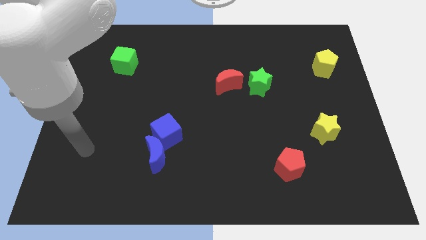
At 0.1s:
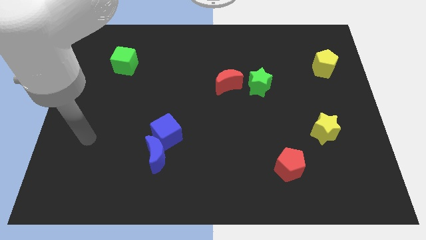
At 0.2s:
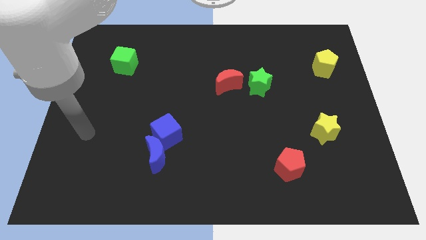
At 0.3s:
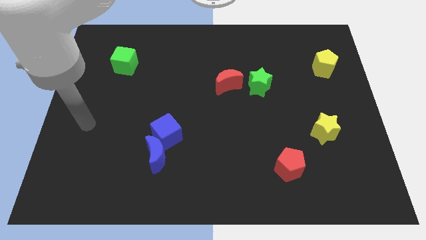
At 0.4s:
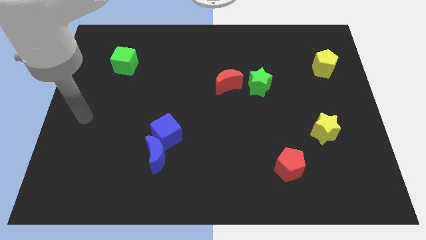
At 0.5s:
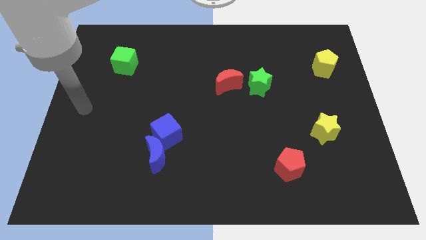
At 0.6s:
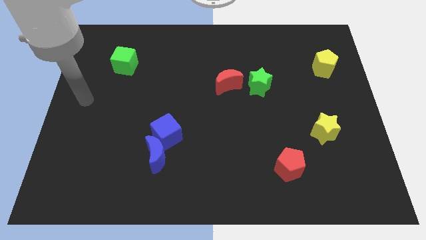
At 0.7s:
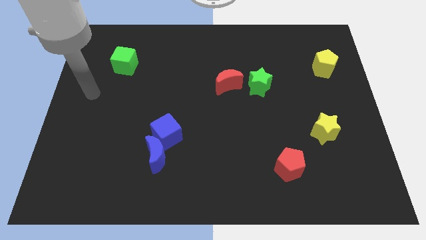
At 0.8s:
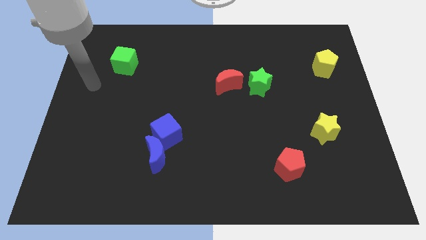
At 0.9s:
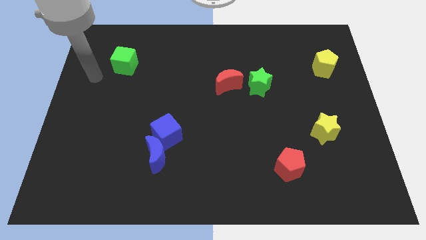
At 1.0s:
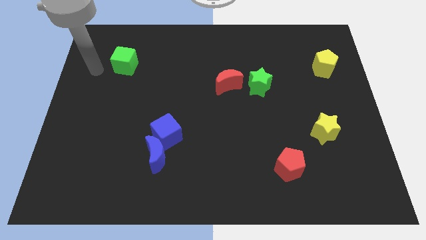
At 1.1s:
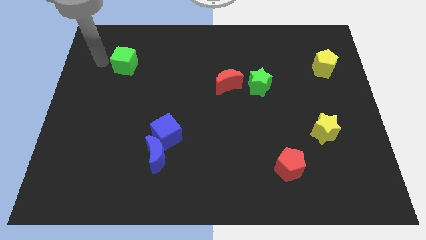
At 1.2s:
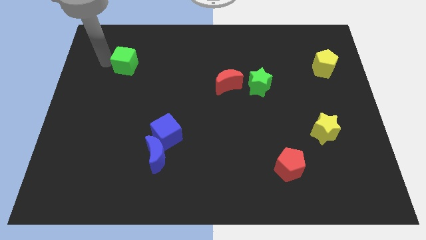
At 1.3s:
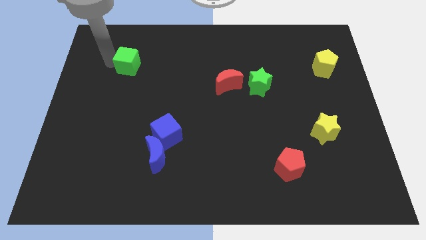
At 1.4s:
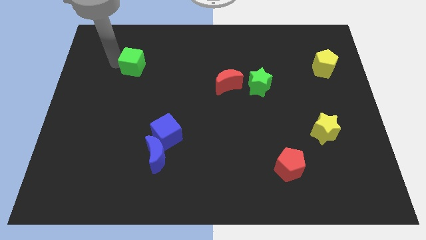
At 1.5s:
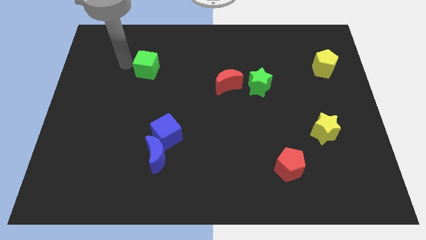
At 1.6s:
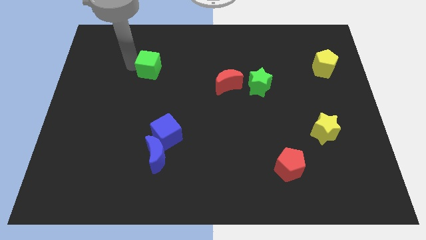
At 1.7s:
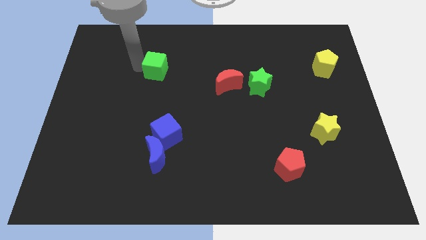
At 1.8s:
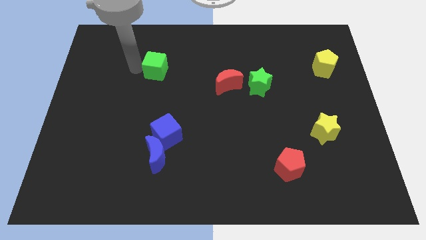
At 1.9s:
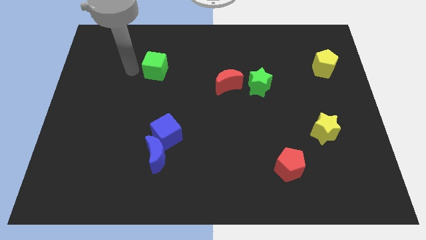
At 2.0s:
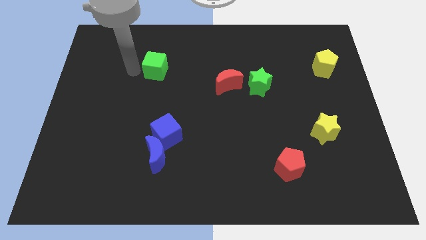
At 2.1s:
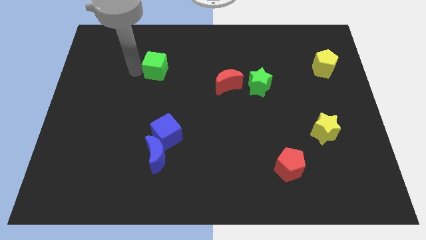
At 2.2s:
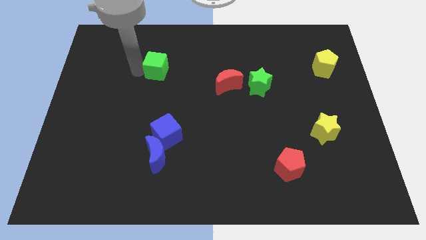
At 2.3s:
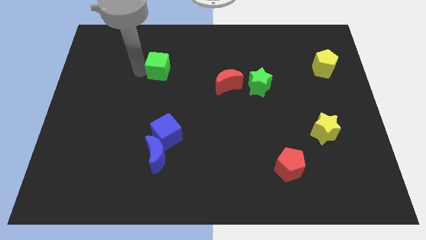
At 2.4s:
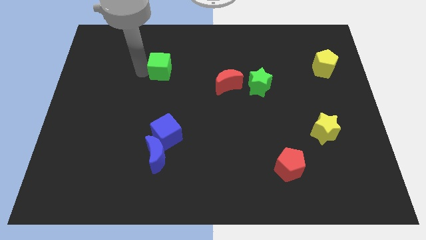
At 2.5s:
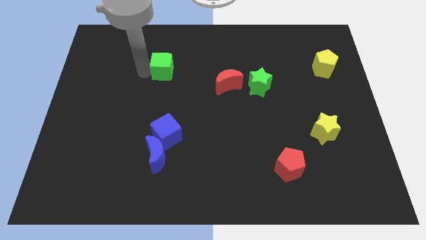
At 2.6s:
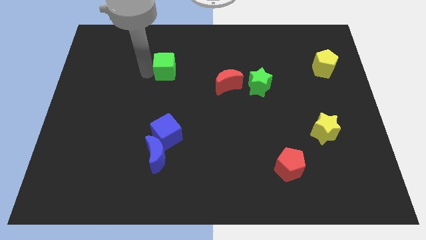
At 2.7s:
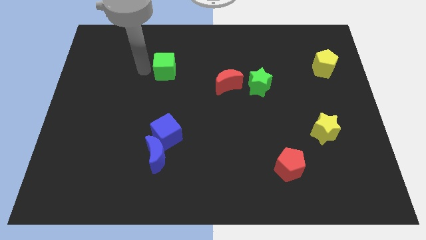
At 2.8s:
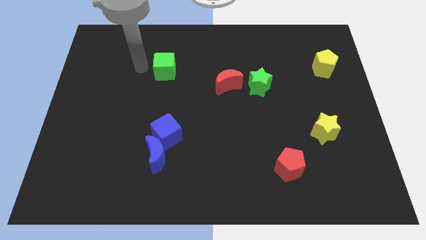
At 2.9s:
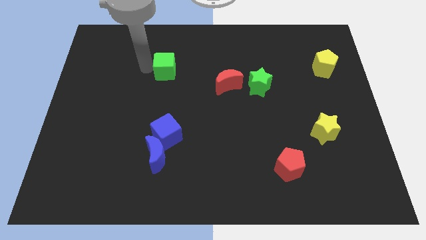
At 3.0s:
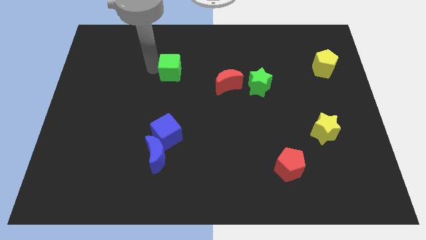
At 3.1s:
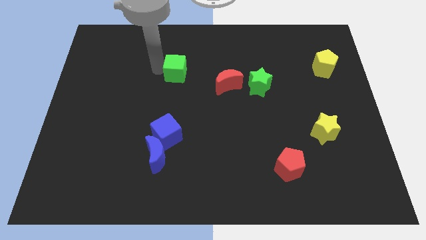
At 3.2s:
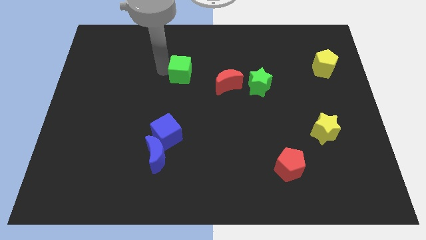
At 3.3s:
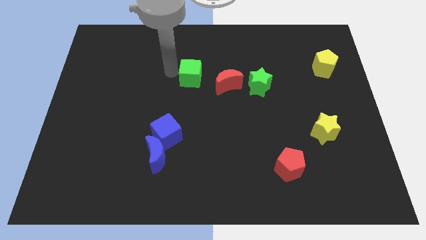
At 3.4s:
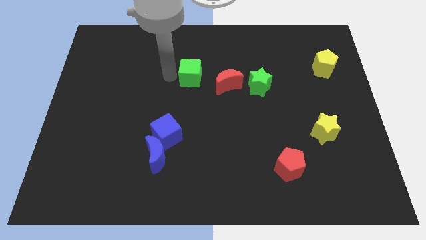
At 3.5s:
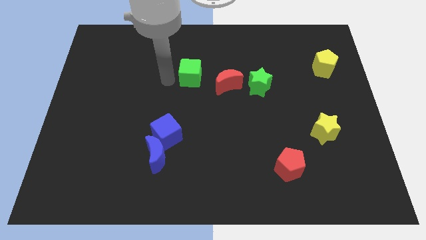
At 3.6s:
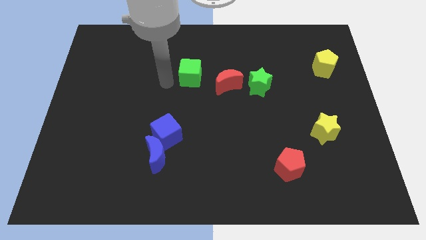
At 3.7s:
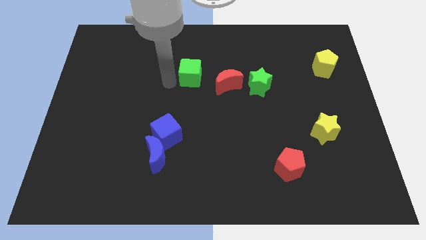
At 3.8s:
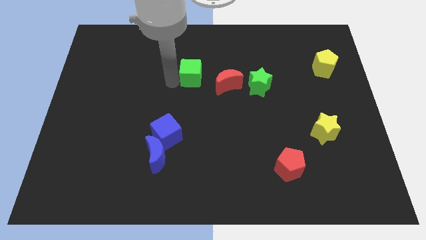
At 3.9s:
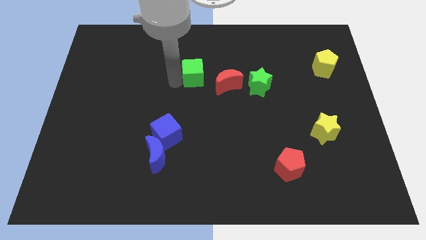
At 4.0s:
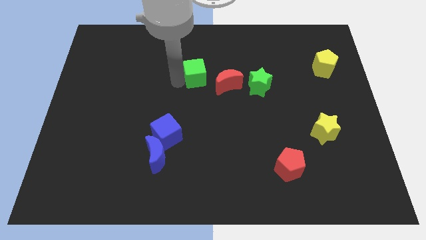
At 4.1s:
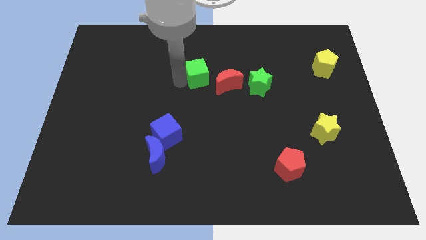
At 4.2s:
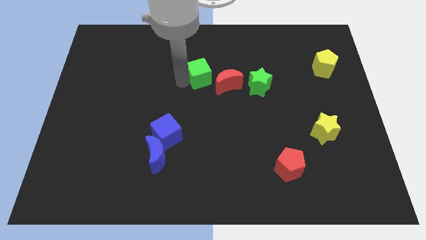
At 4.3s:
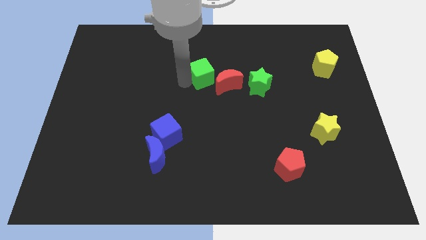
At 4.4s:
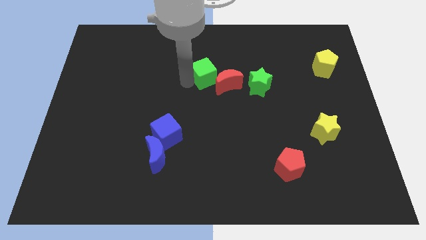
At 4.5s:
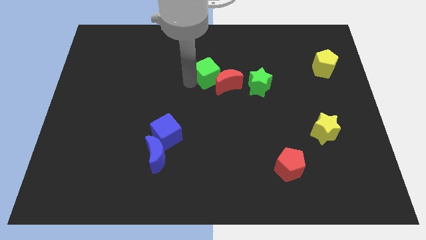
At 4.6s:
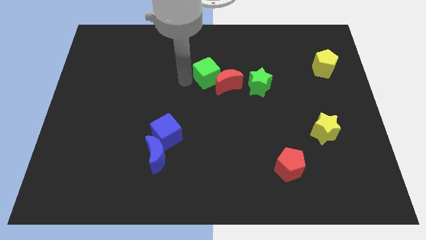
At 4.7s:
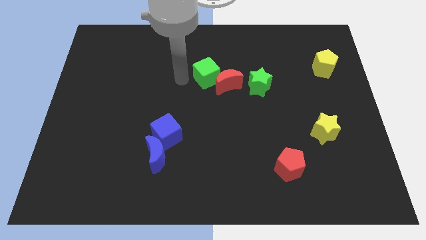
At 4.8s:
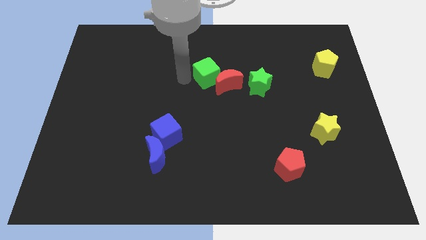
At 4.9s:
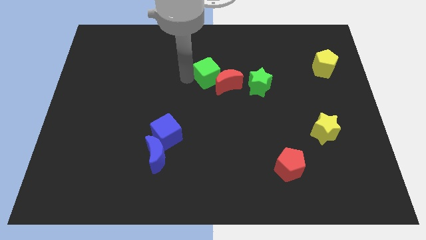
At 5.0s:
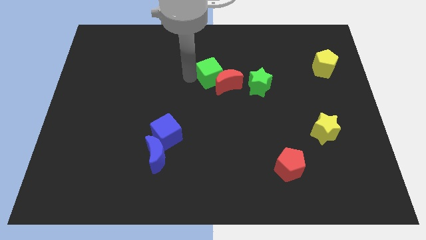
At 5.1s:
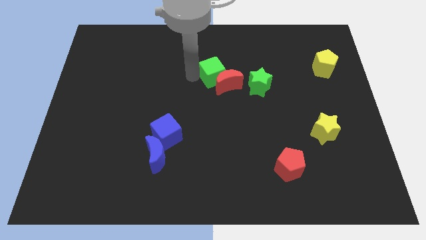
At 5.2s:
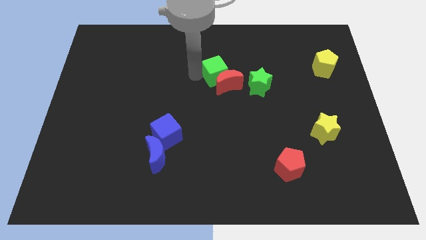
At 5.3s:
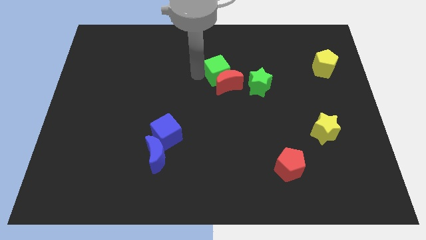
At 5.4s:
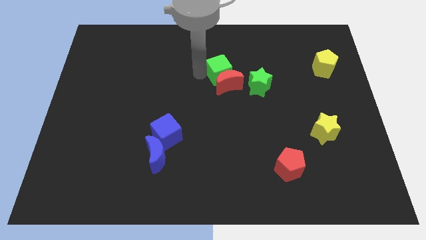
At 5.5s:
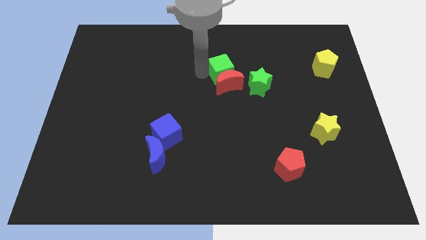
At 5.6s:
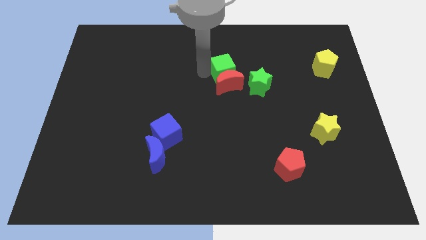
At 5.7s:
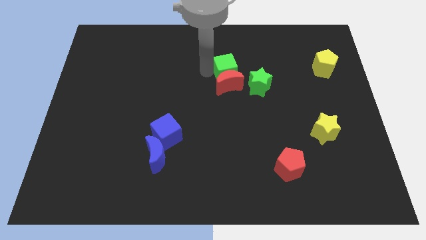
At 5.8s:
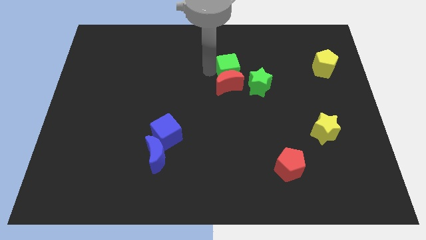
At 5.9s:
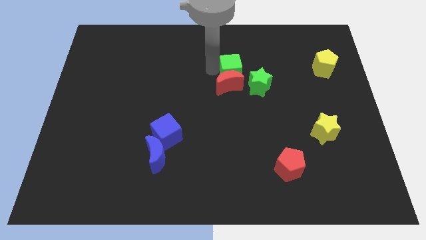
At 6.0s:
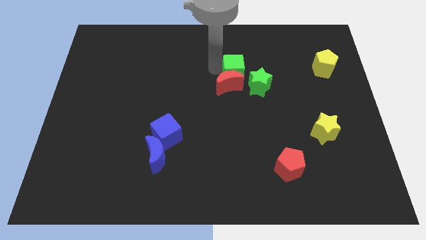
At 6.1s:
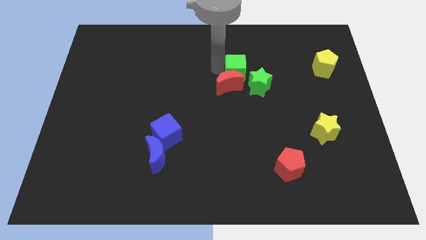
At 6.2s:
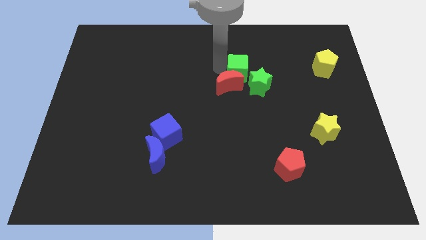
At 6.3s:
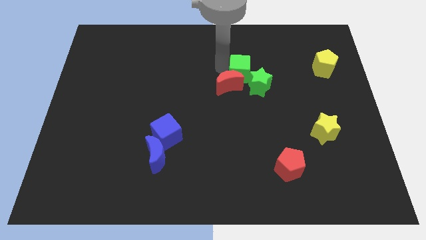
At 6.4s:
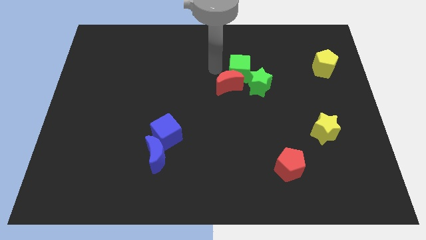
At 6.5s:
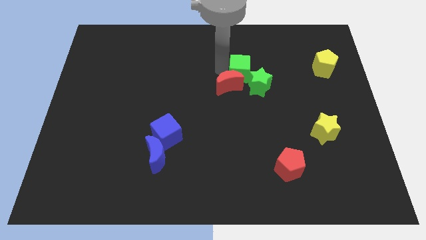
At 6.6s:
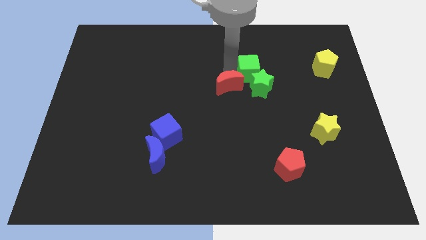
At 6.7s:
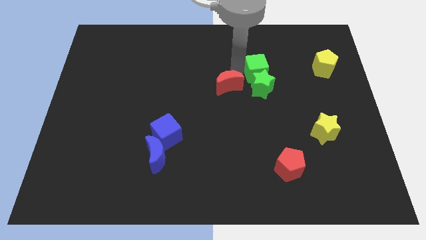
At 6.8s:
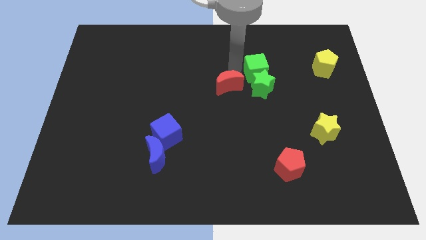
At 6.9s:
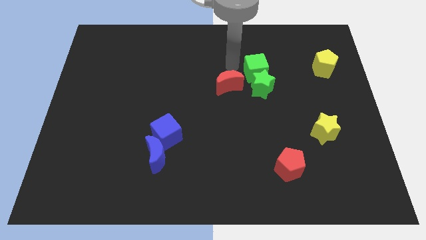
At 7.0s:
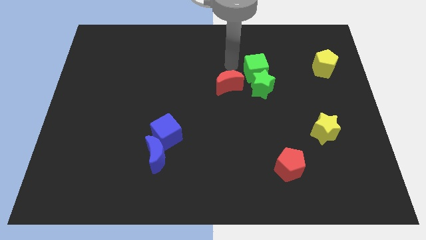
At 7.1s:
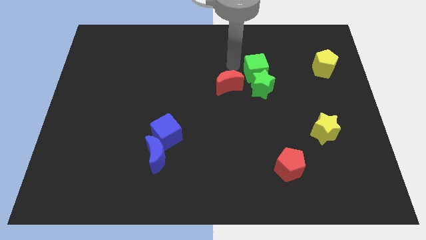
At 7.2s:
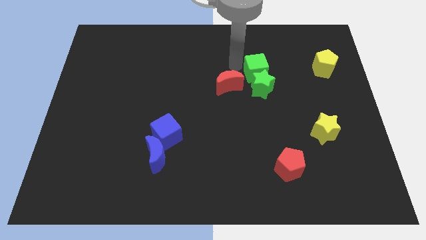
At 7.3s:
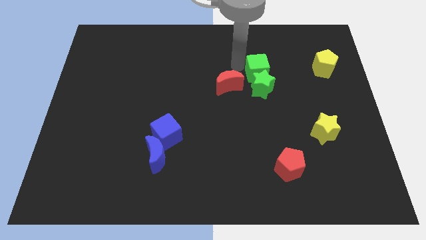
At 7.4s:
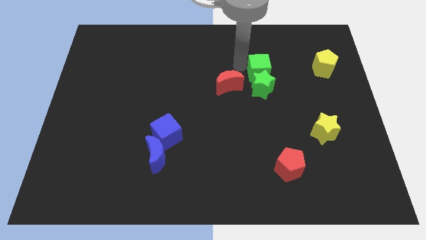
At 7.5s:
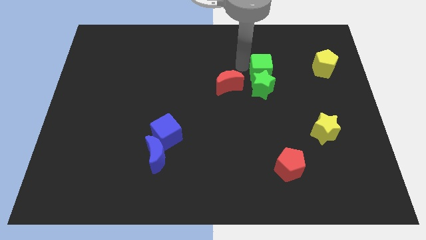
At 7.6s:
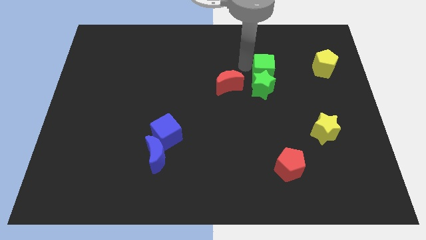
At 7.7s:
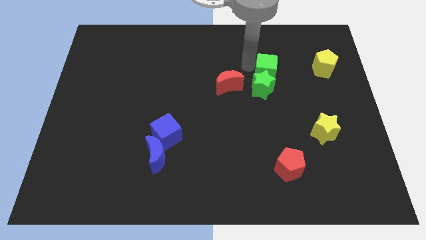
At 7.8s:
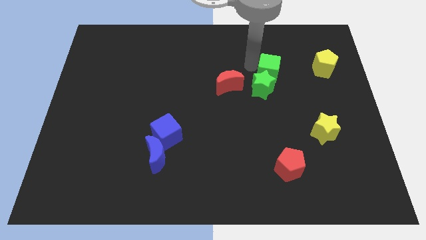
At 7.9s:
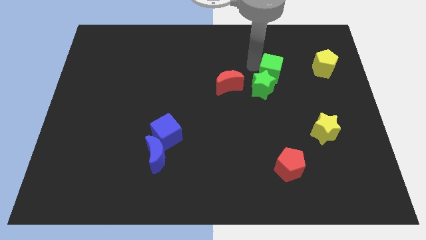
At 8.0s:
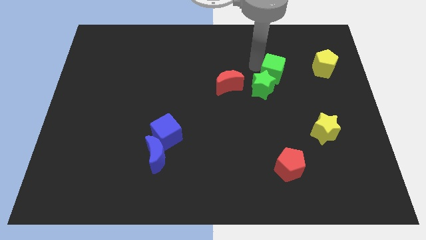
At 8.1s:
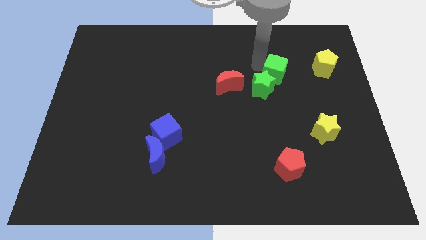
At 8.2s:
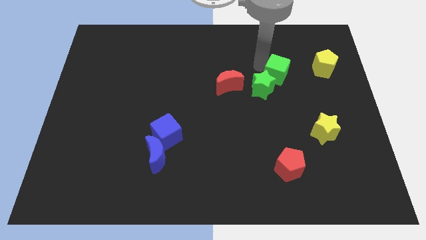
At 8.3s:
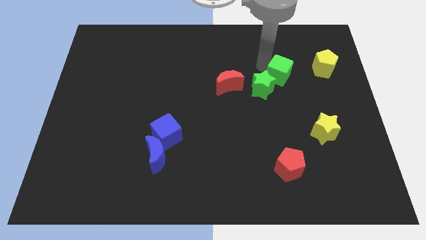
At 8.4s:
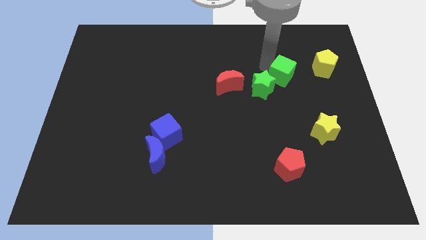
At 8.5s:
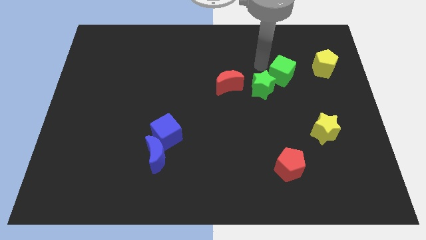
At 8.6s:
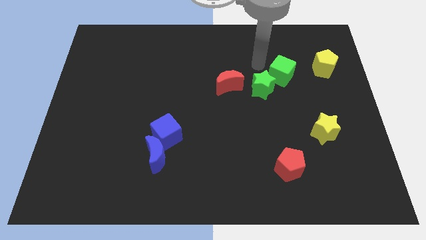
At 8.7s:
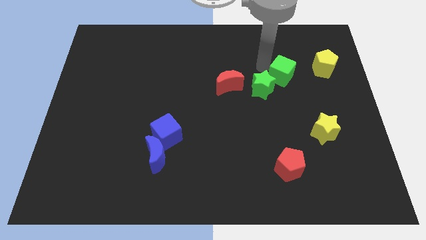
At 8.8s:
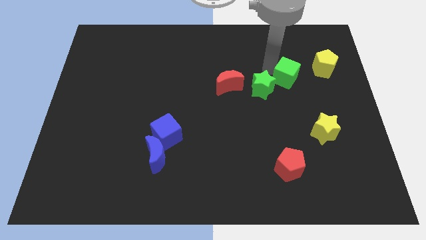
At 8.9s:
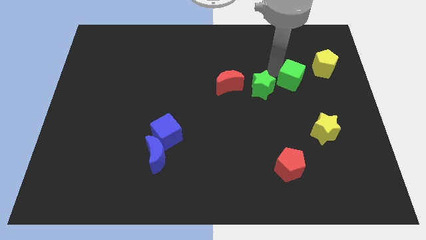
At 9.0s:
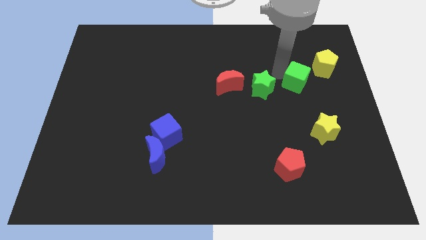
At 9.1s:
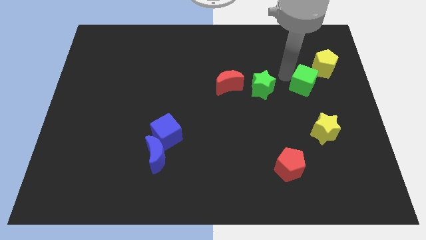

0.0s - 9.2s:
slide the green cube above the yellow star
